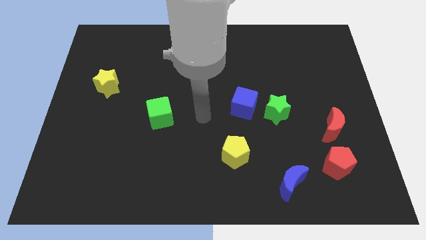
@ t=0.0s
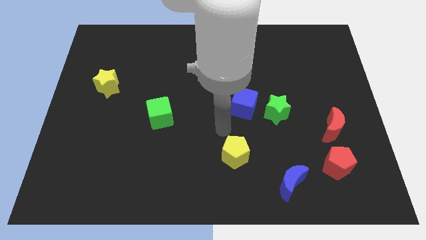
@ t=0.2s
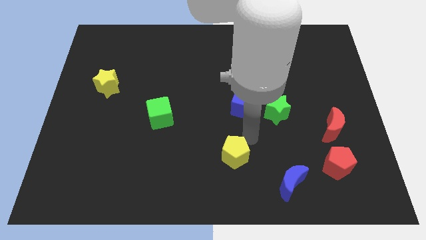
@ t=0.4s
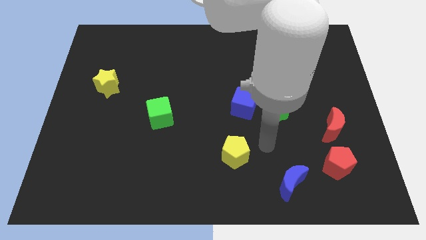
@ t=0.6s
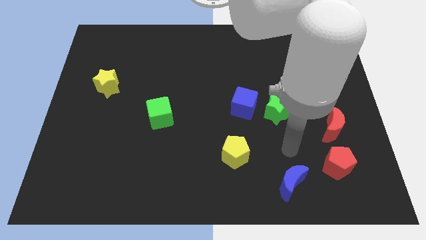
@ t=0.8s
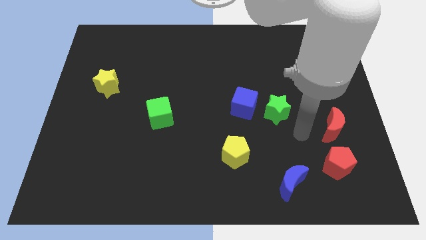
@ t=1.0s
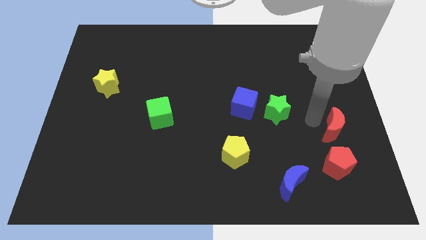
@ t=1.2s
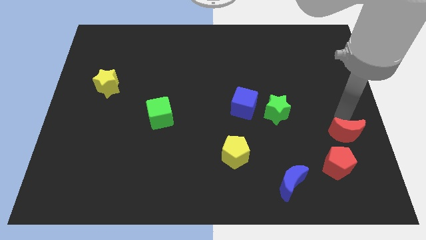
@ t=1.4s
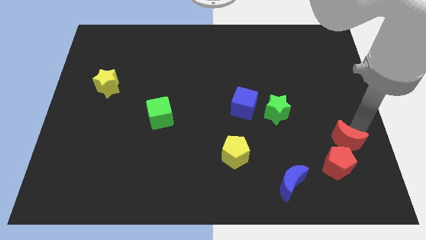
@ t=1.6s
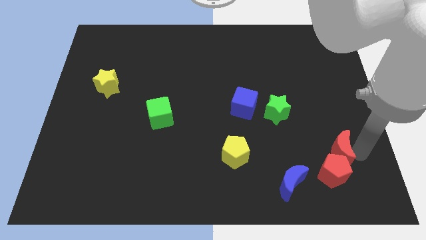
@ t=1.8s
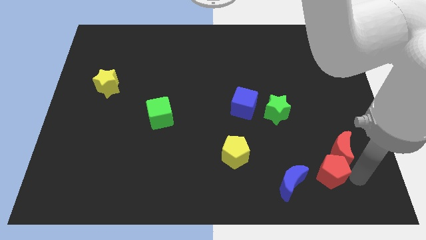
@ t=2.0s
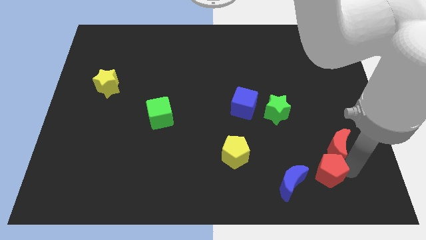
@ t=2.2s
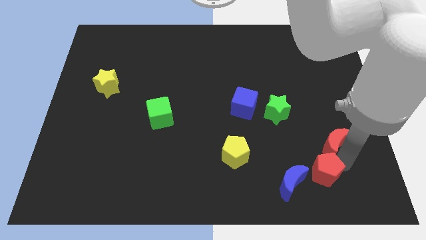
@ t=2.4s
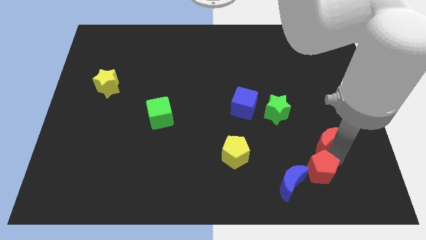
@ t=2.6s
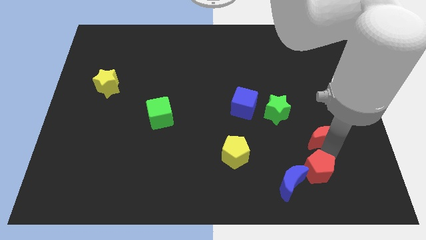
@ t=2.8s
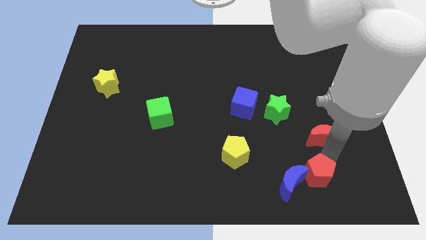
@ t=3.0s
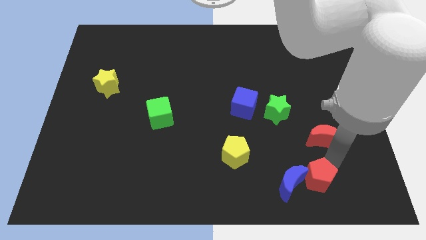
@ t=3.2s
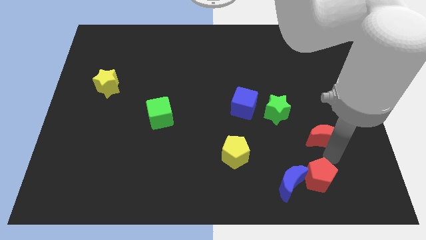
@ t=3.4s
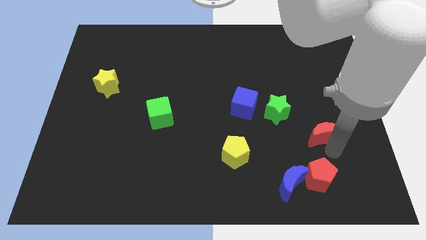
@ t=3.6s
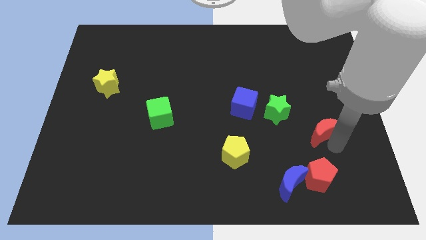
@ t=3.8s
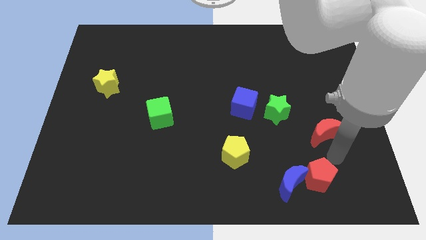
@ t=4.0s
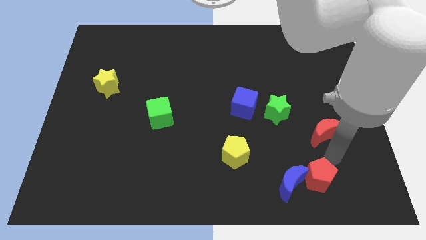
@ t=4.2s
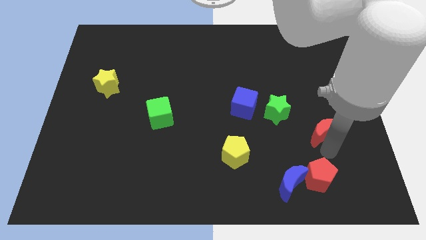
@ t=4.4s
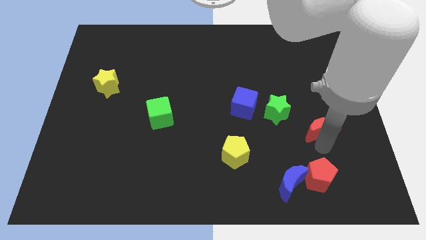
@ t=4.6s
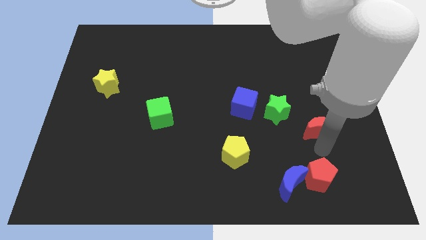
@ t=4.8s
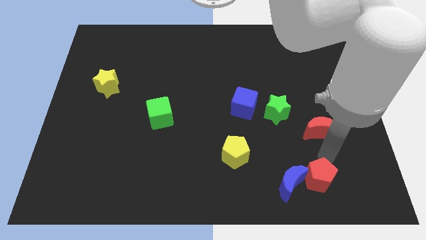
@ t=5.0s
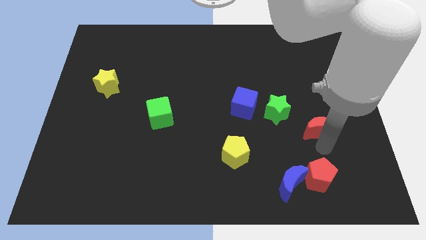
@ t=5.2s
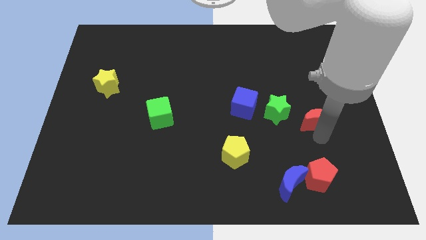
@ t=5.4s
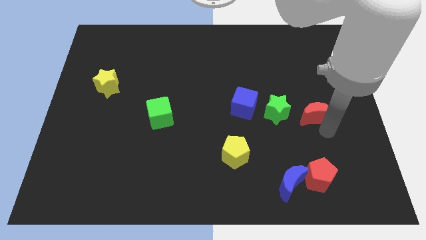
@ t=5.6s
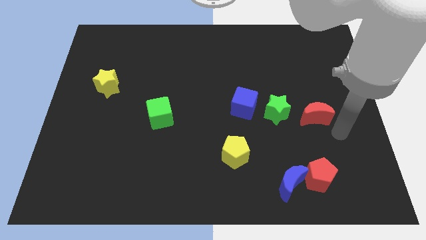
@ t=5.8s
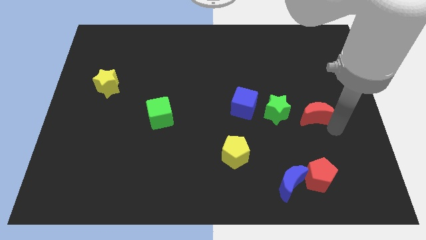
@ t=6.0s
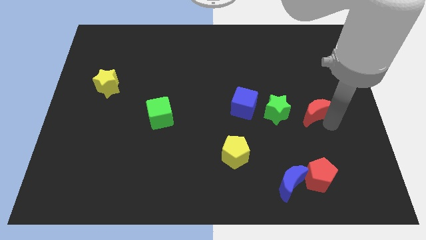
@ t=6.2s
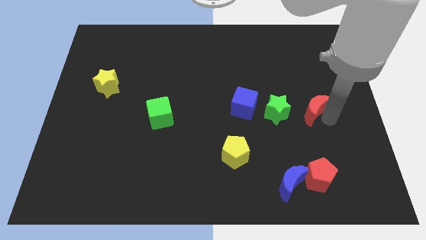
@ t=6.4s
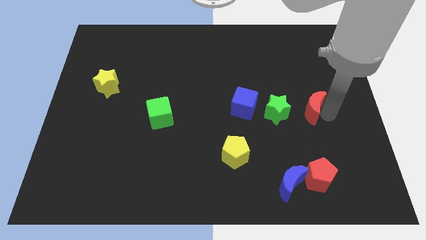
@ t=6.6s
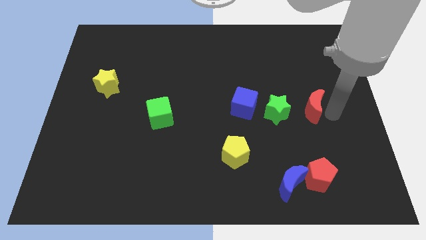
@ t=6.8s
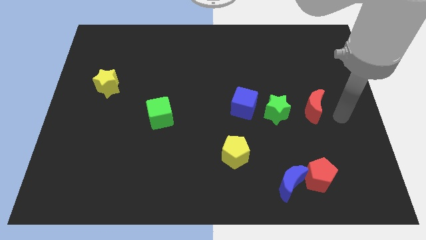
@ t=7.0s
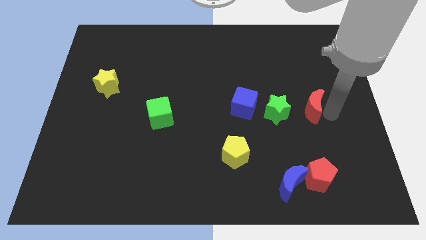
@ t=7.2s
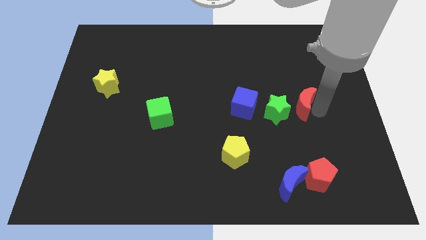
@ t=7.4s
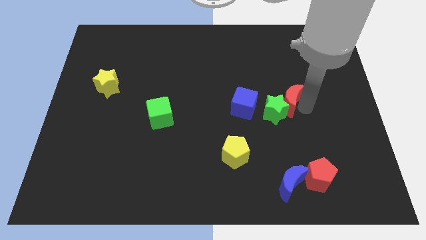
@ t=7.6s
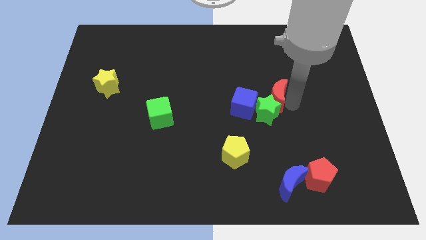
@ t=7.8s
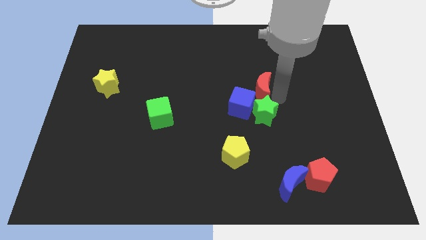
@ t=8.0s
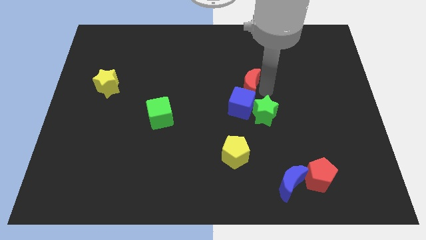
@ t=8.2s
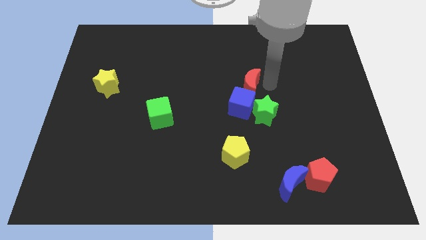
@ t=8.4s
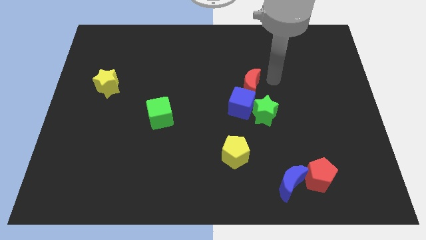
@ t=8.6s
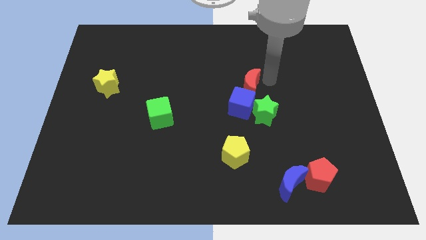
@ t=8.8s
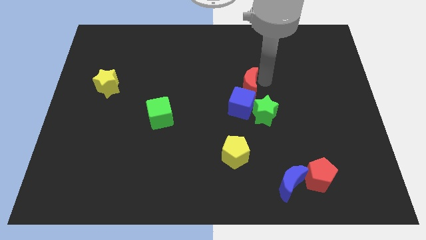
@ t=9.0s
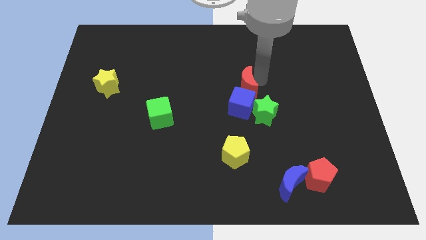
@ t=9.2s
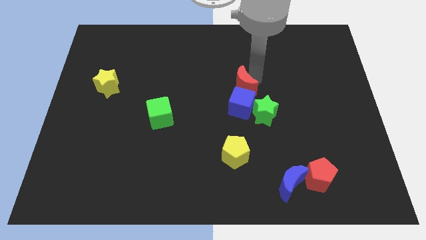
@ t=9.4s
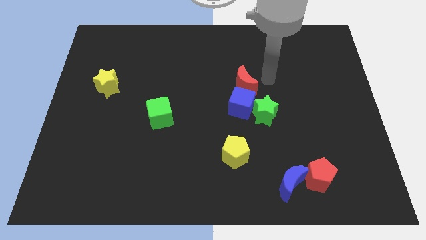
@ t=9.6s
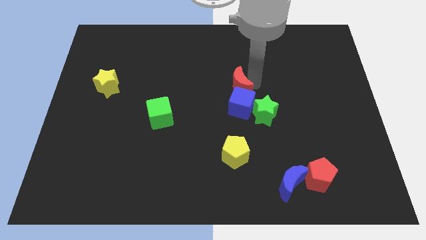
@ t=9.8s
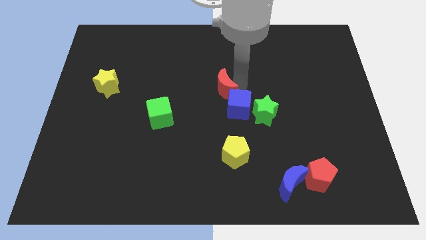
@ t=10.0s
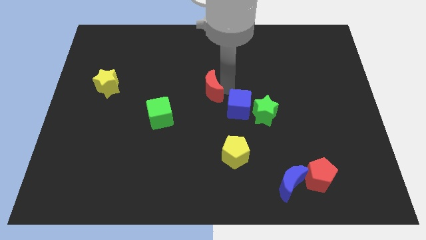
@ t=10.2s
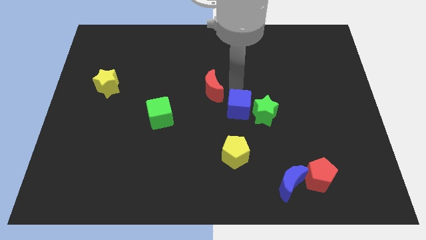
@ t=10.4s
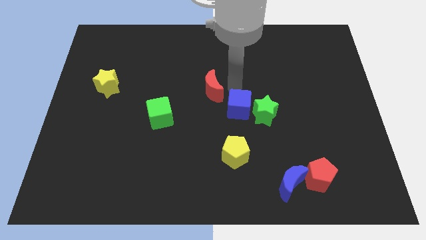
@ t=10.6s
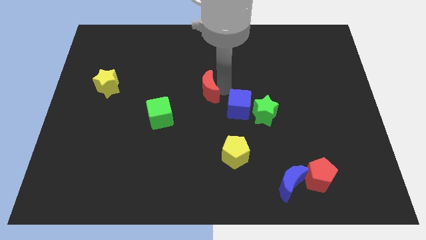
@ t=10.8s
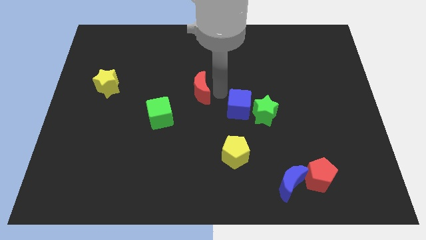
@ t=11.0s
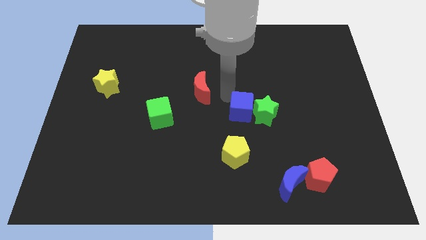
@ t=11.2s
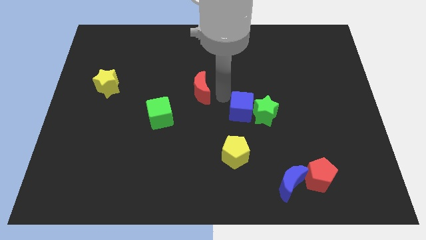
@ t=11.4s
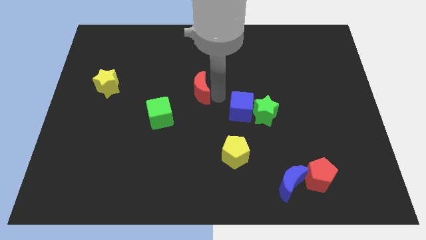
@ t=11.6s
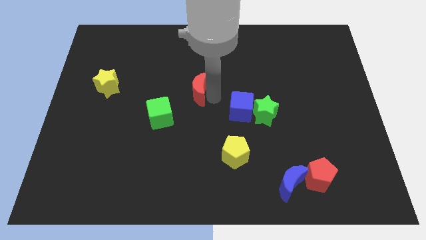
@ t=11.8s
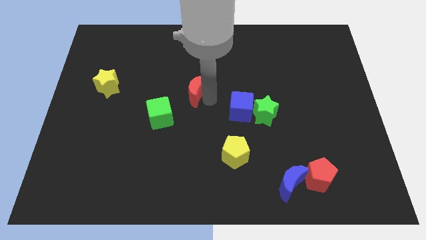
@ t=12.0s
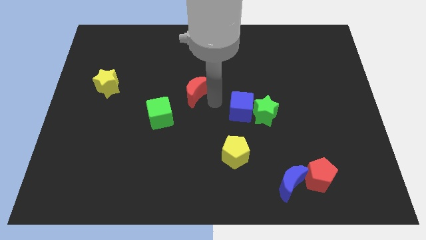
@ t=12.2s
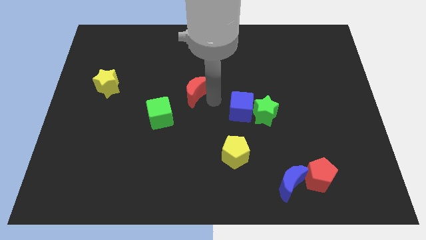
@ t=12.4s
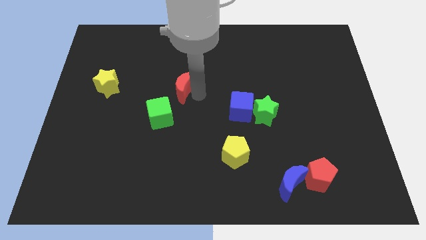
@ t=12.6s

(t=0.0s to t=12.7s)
slide the red moon to the top of the green cube

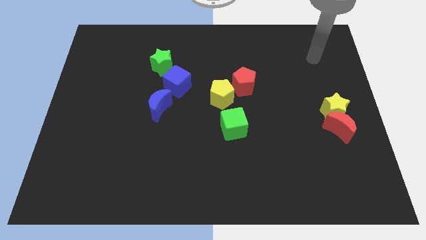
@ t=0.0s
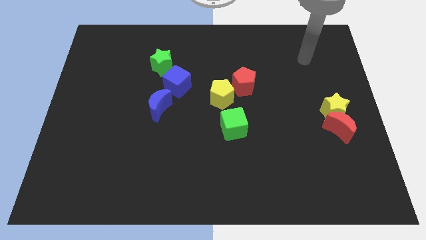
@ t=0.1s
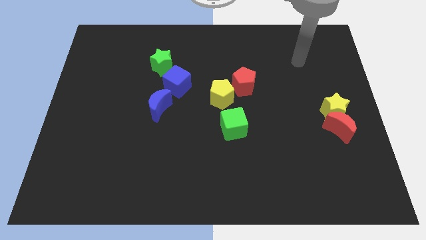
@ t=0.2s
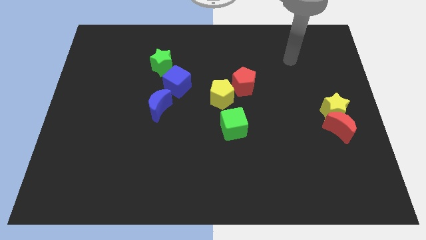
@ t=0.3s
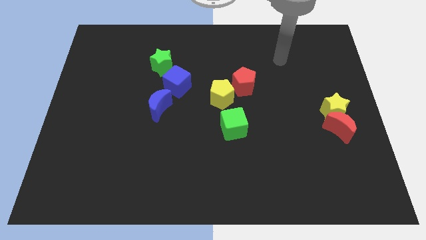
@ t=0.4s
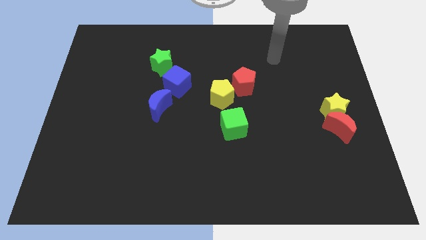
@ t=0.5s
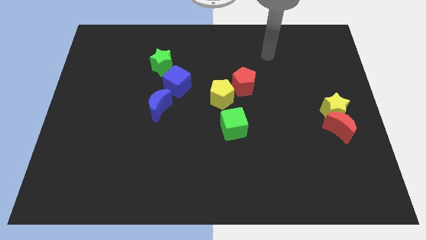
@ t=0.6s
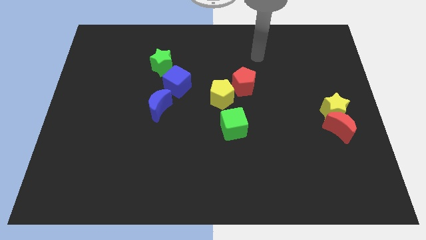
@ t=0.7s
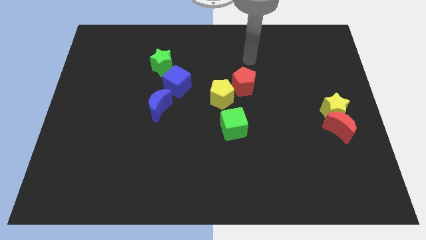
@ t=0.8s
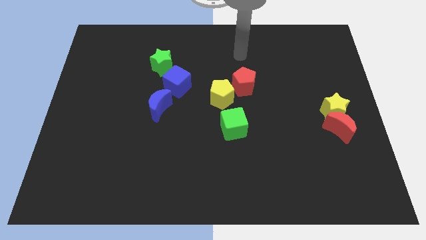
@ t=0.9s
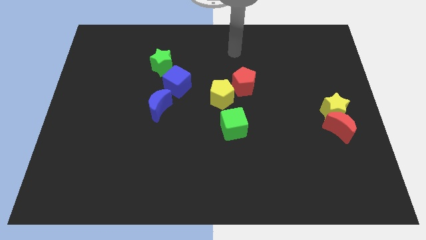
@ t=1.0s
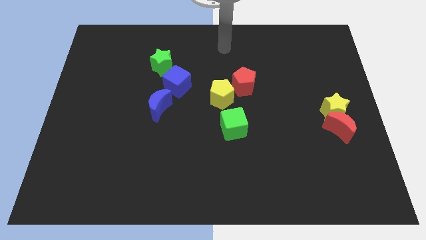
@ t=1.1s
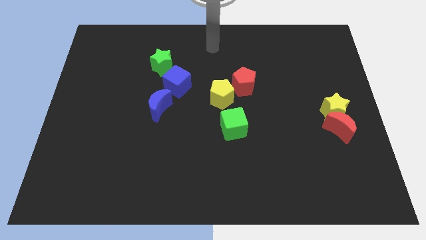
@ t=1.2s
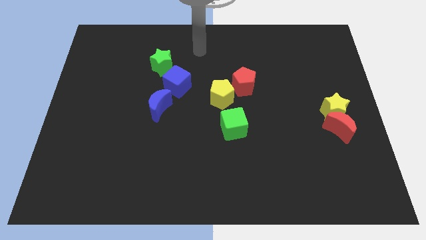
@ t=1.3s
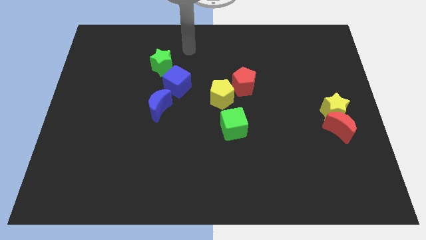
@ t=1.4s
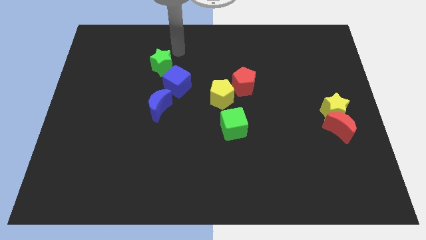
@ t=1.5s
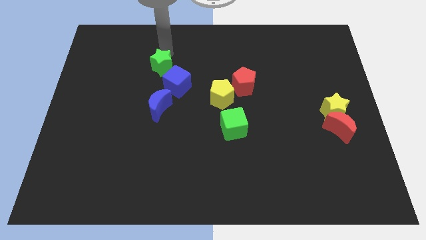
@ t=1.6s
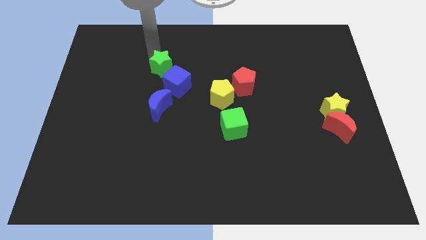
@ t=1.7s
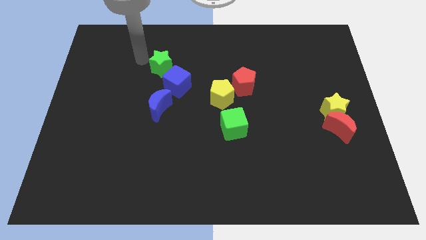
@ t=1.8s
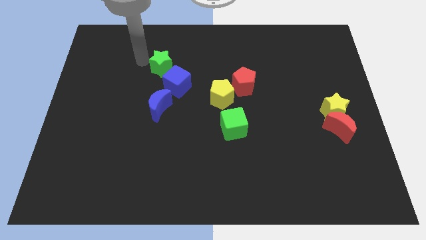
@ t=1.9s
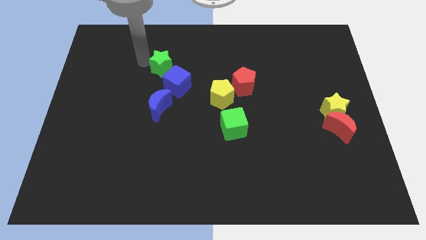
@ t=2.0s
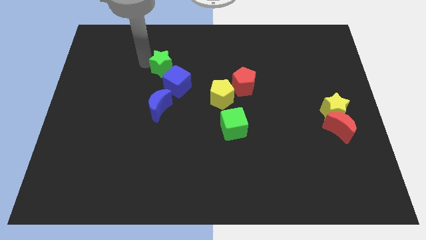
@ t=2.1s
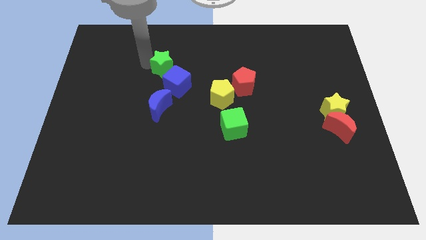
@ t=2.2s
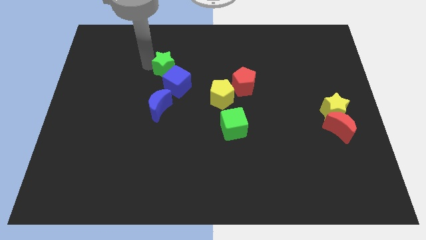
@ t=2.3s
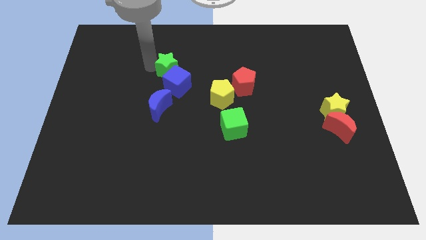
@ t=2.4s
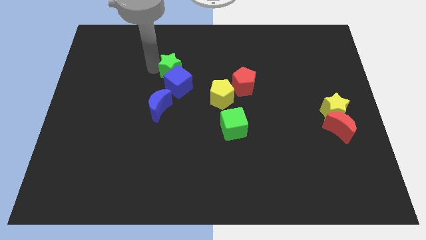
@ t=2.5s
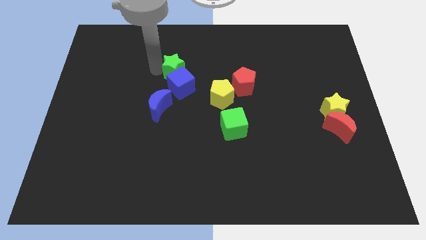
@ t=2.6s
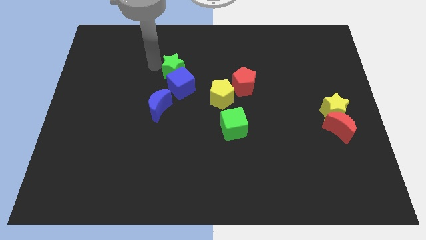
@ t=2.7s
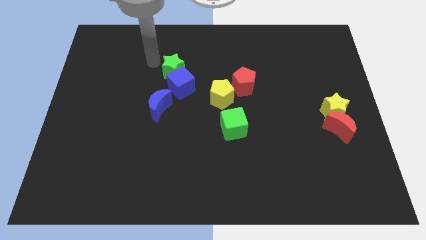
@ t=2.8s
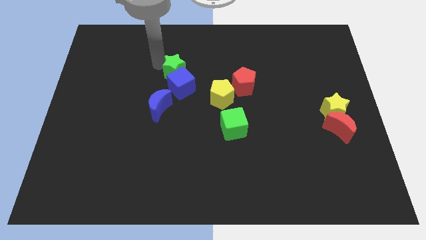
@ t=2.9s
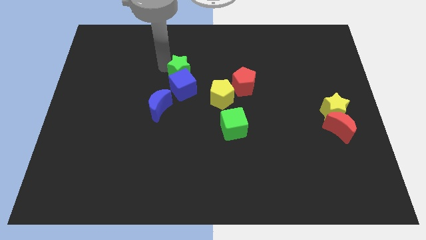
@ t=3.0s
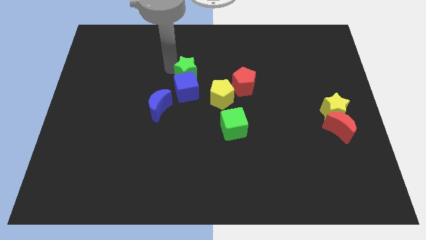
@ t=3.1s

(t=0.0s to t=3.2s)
move the green star to the top left of the yellow pentagon
